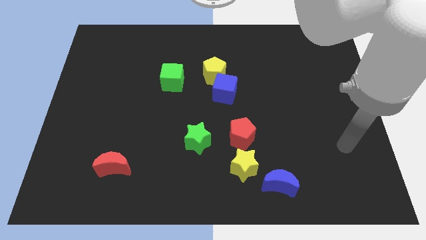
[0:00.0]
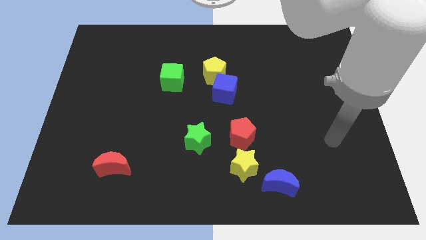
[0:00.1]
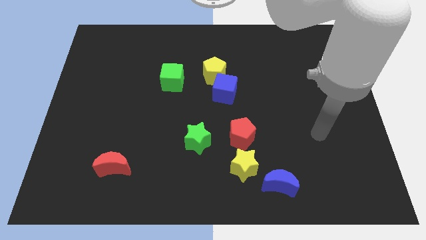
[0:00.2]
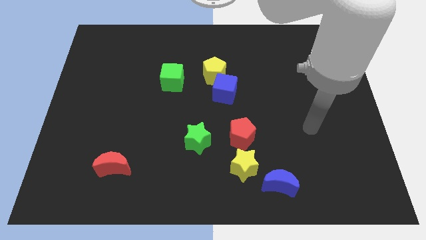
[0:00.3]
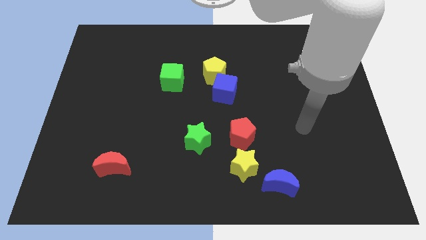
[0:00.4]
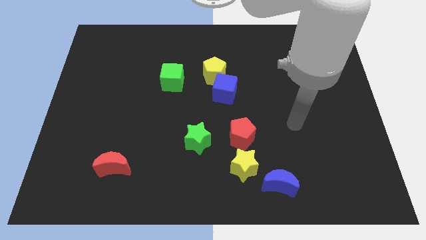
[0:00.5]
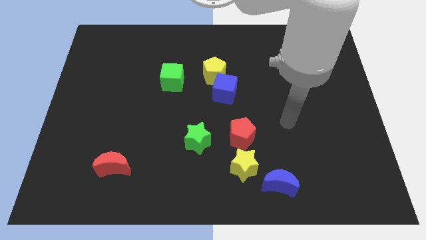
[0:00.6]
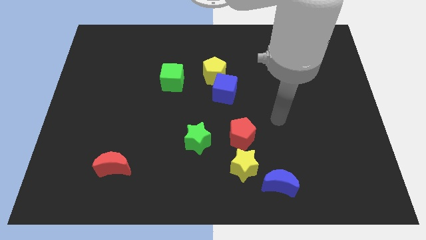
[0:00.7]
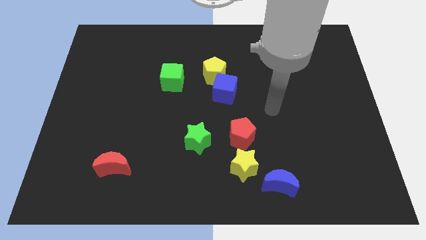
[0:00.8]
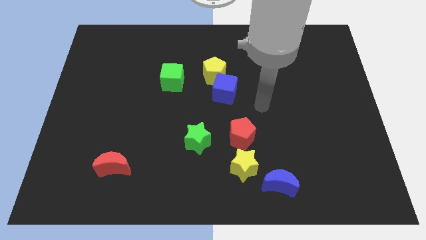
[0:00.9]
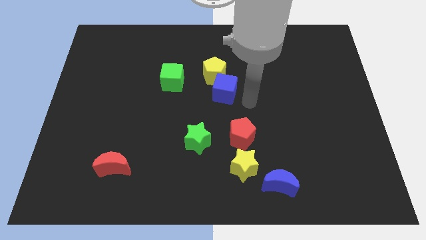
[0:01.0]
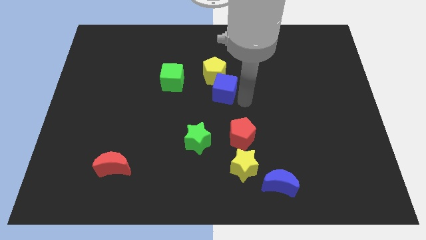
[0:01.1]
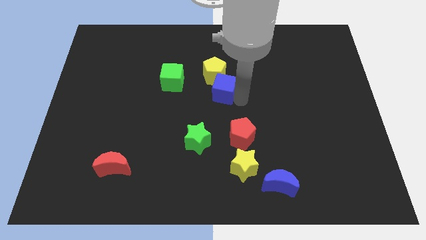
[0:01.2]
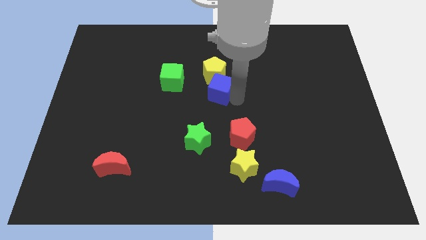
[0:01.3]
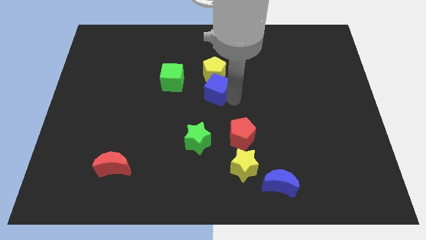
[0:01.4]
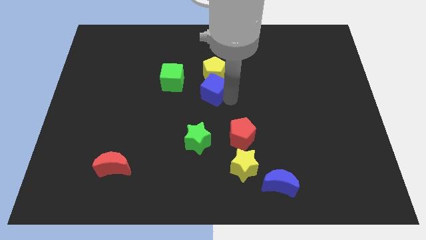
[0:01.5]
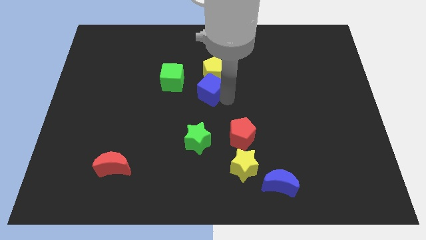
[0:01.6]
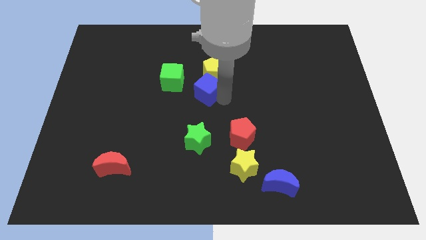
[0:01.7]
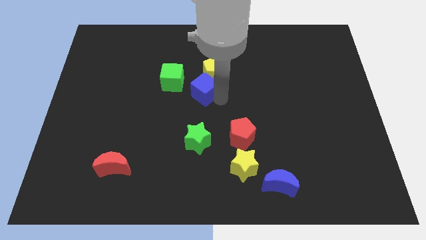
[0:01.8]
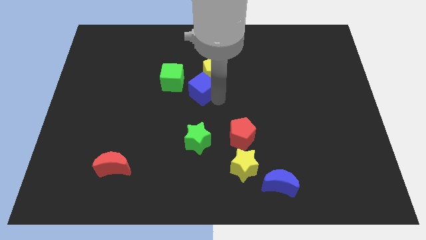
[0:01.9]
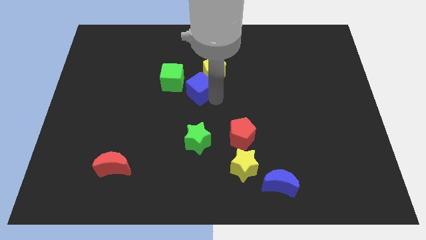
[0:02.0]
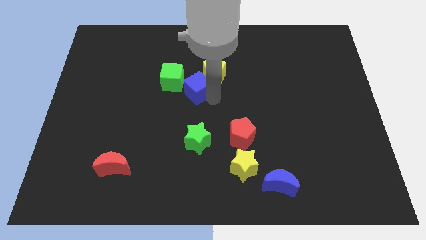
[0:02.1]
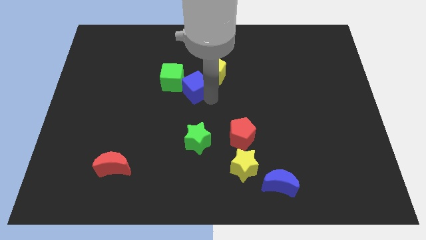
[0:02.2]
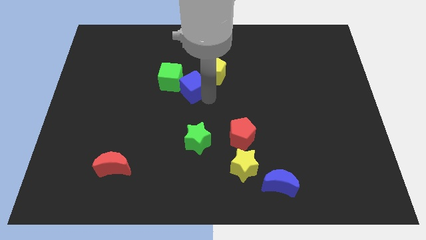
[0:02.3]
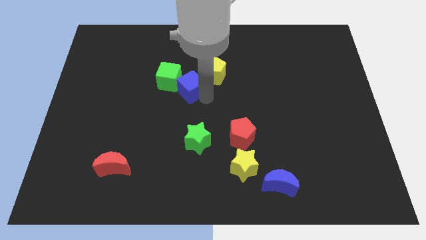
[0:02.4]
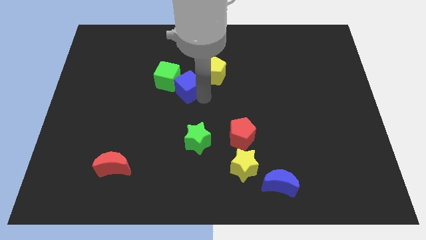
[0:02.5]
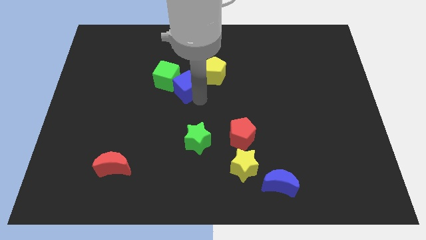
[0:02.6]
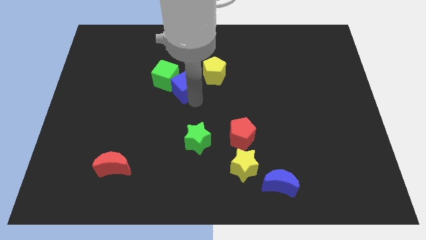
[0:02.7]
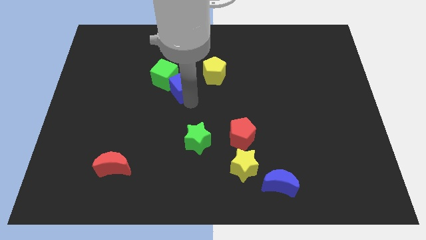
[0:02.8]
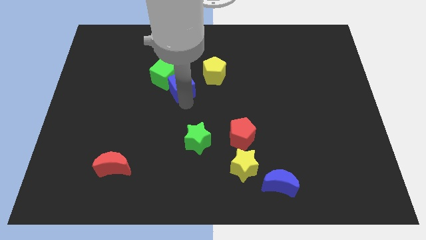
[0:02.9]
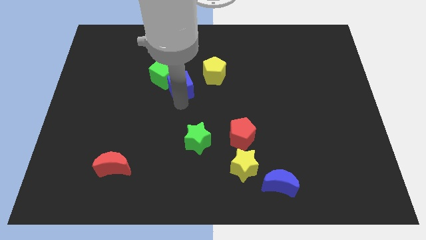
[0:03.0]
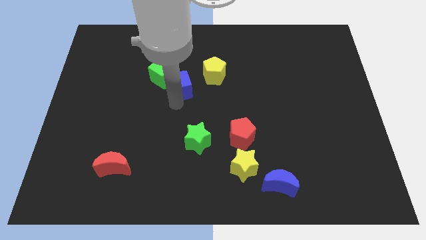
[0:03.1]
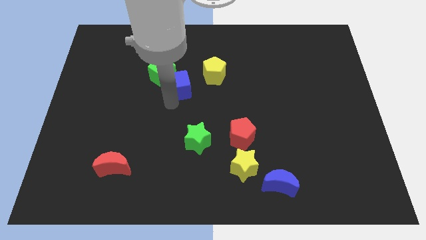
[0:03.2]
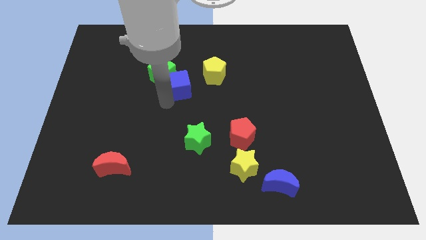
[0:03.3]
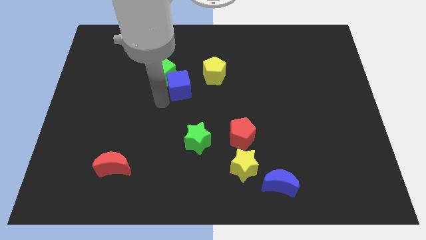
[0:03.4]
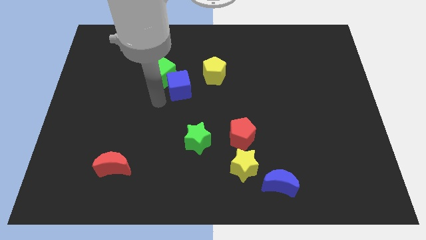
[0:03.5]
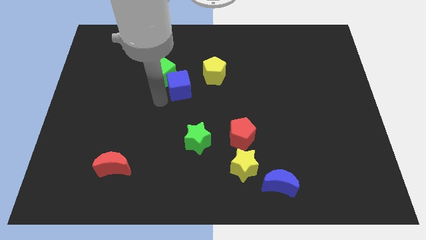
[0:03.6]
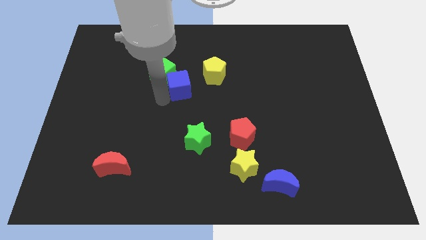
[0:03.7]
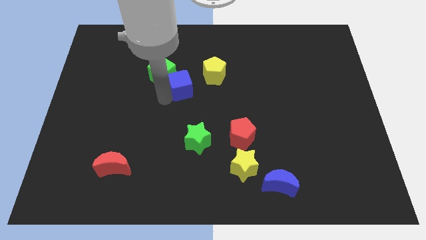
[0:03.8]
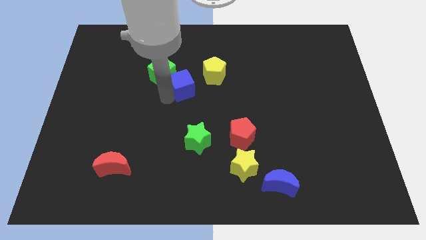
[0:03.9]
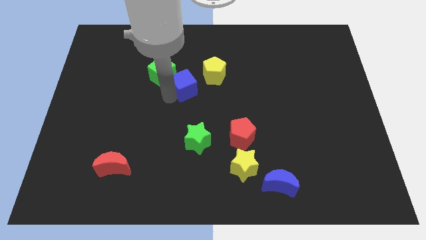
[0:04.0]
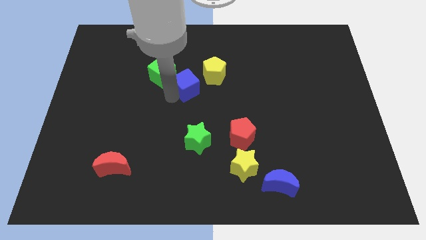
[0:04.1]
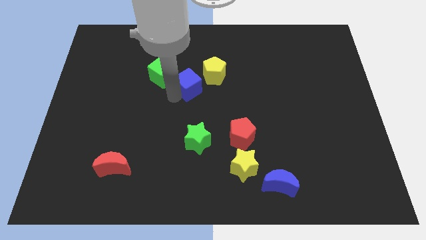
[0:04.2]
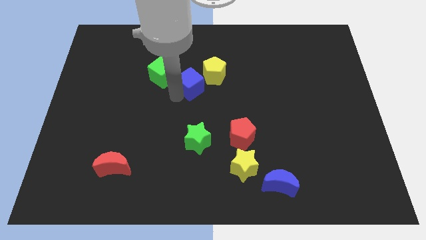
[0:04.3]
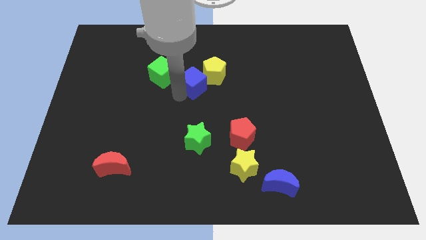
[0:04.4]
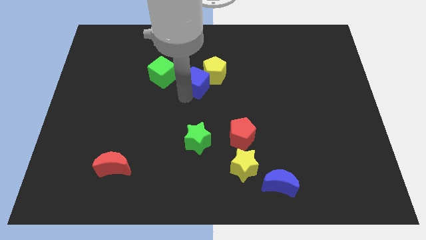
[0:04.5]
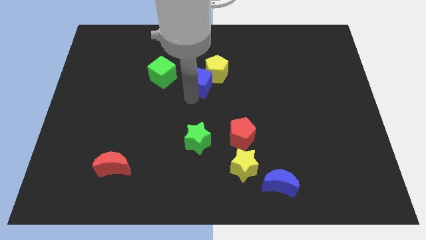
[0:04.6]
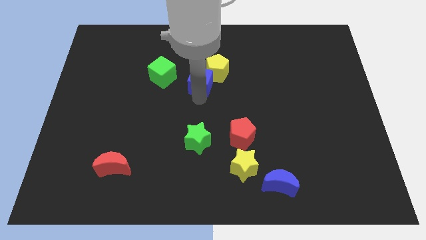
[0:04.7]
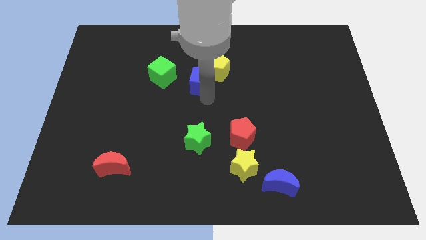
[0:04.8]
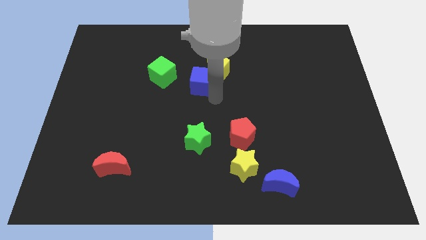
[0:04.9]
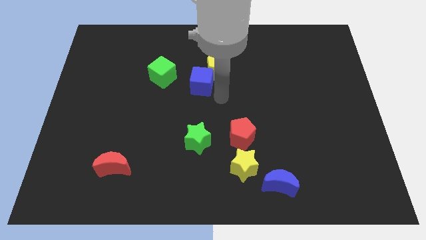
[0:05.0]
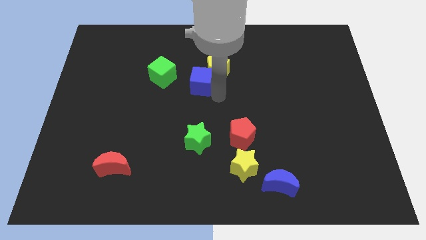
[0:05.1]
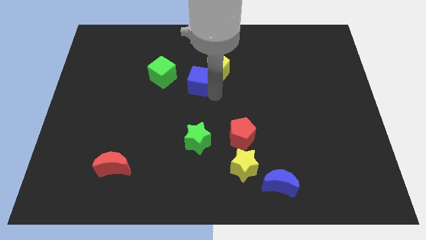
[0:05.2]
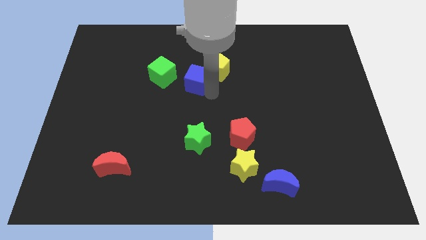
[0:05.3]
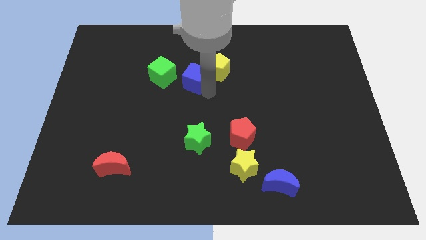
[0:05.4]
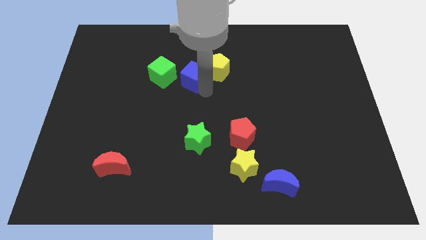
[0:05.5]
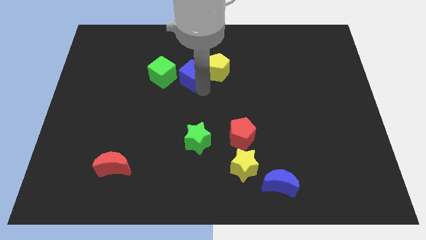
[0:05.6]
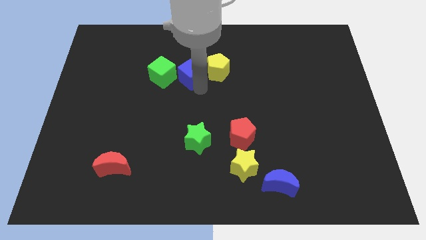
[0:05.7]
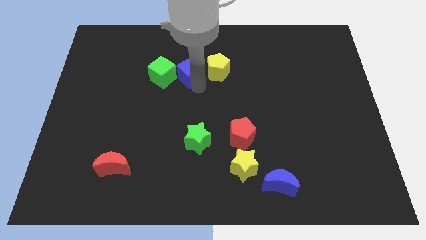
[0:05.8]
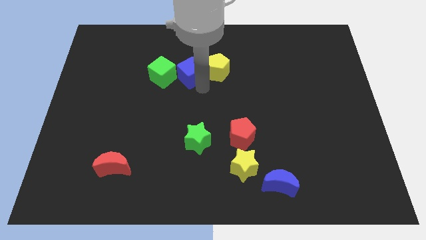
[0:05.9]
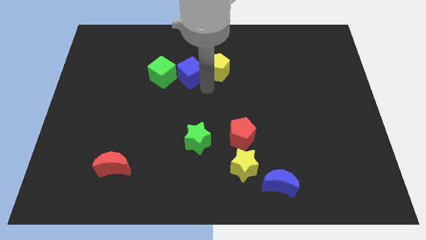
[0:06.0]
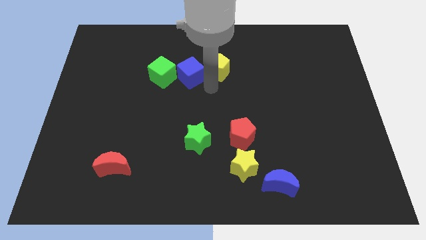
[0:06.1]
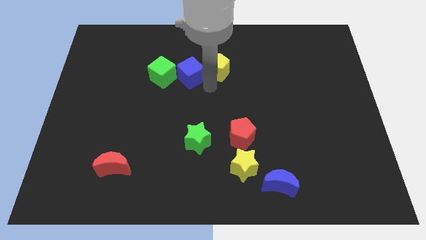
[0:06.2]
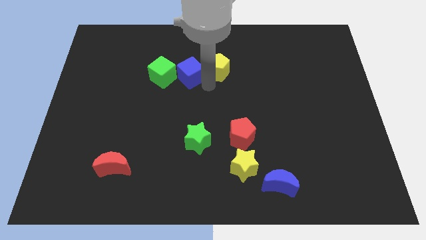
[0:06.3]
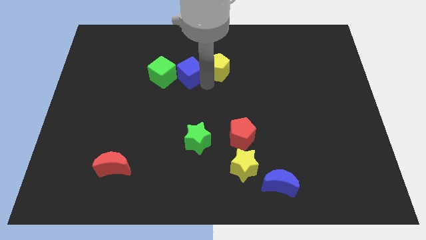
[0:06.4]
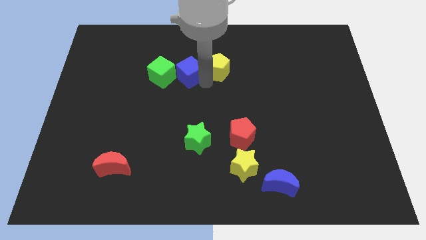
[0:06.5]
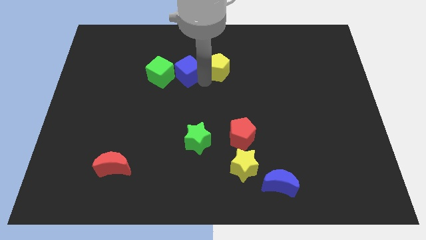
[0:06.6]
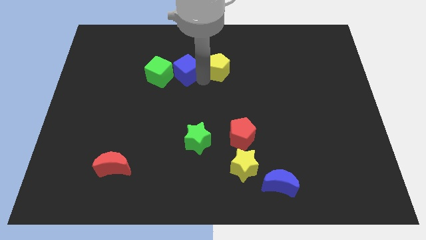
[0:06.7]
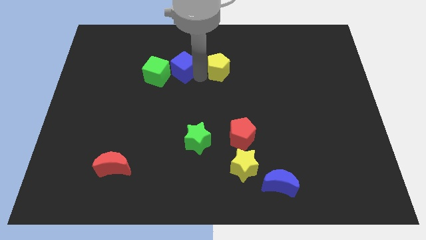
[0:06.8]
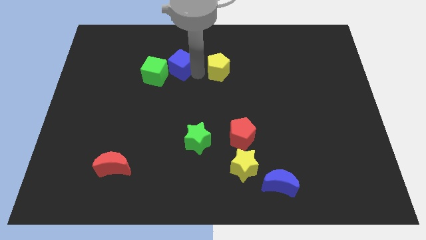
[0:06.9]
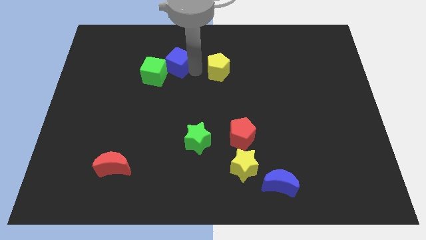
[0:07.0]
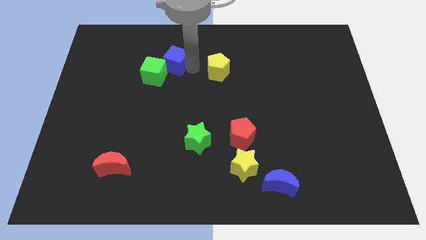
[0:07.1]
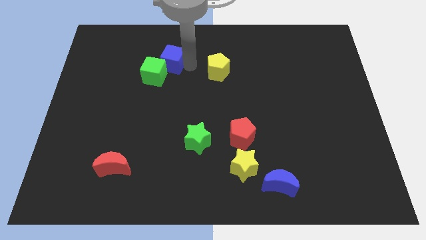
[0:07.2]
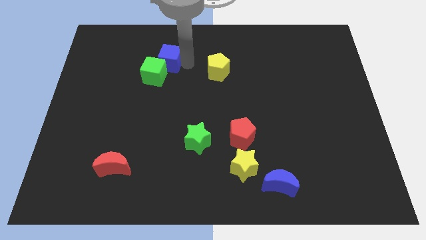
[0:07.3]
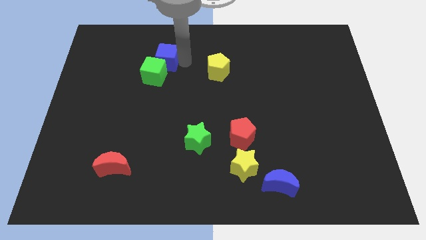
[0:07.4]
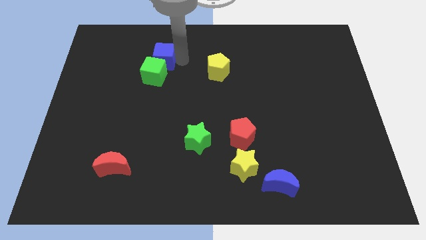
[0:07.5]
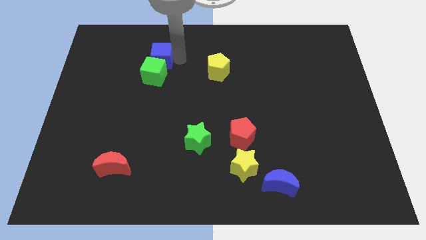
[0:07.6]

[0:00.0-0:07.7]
put the blue cube diagonally up and to the left of the green cube

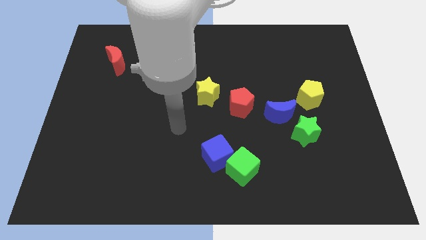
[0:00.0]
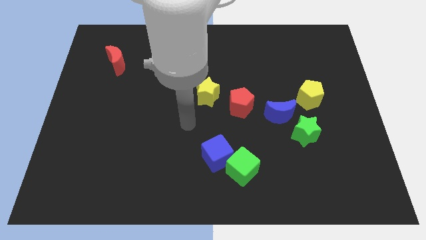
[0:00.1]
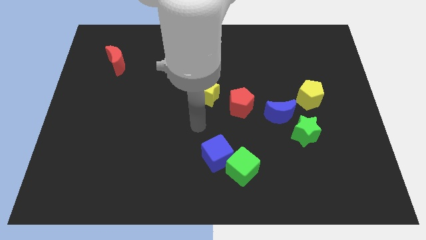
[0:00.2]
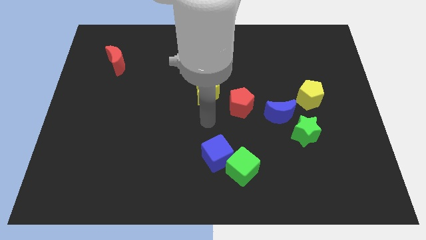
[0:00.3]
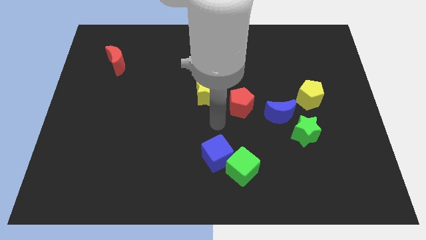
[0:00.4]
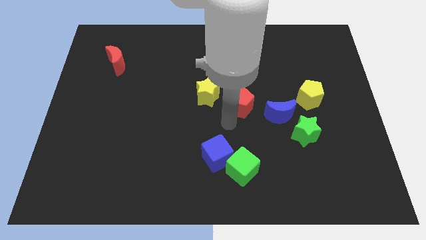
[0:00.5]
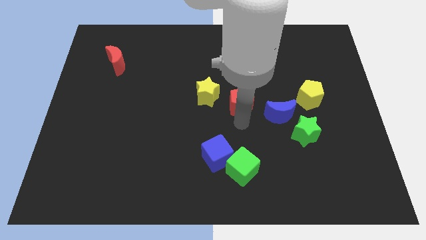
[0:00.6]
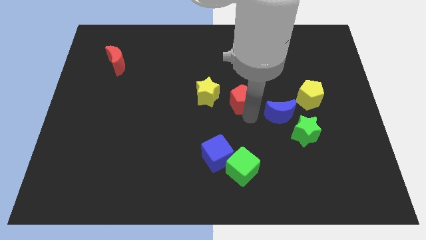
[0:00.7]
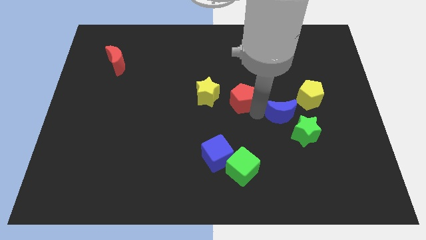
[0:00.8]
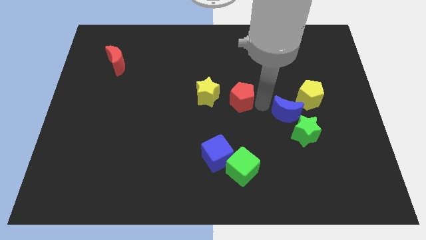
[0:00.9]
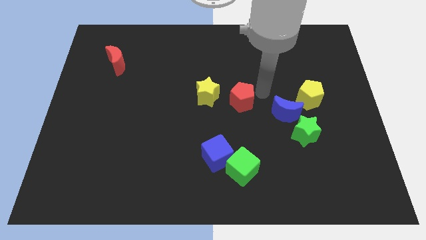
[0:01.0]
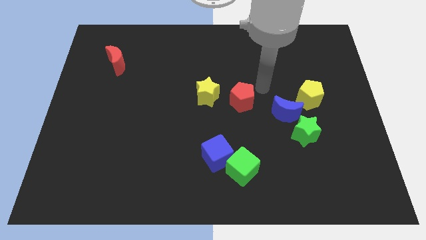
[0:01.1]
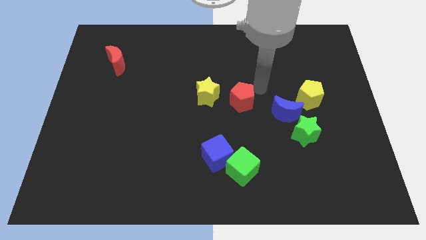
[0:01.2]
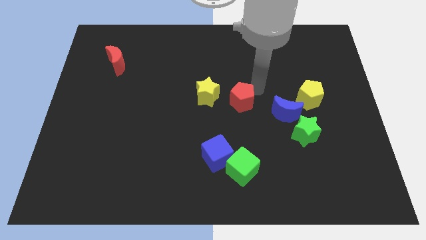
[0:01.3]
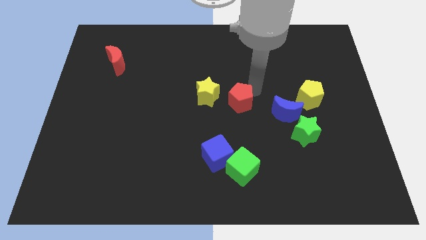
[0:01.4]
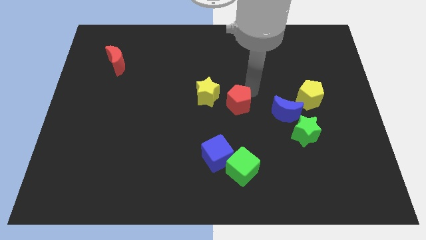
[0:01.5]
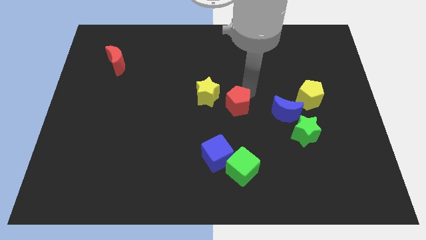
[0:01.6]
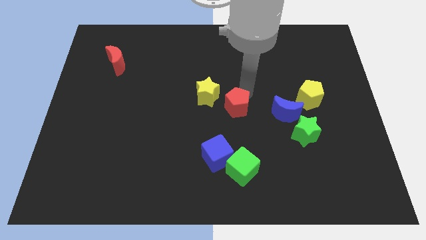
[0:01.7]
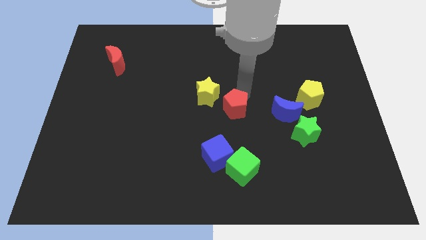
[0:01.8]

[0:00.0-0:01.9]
move the red pentagon to the top of the blue cube
